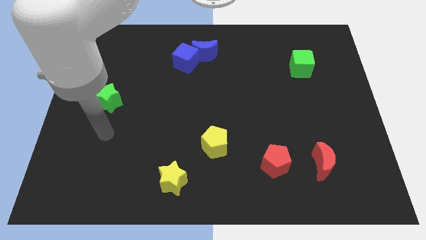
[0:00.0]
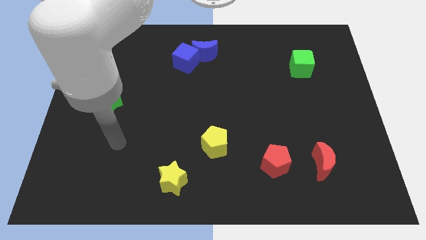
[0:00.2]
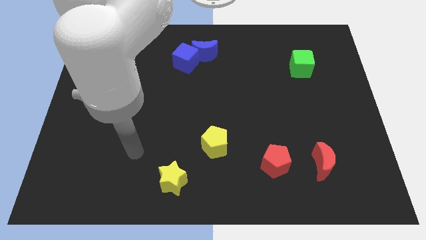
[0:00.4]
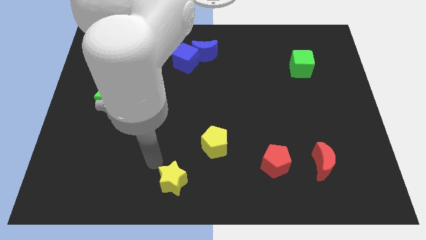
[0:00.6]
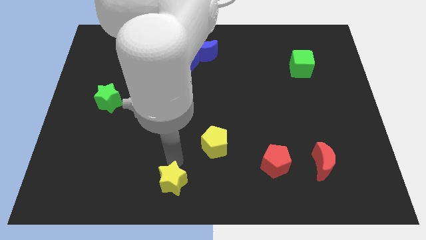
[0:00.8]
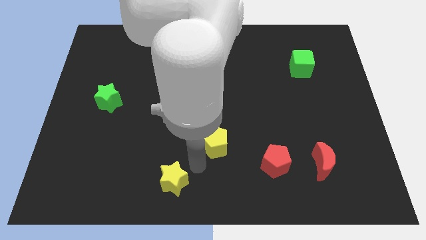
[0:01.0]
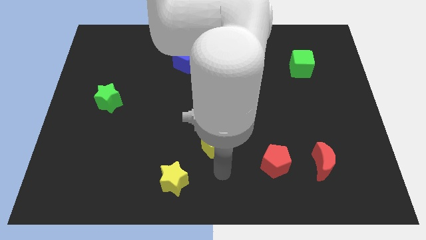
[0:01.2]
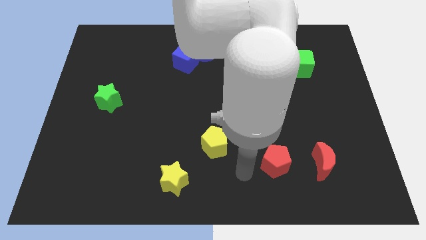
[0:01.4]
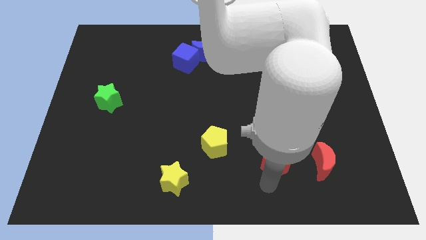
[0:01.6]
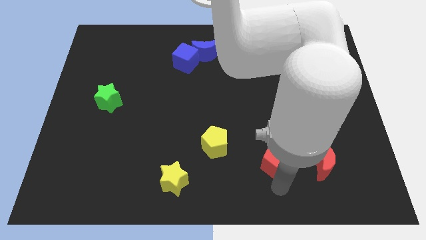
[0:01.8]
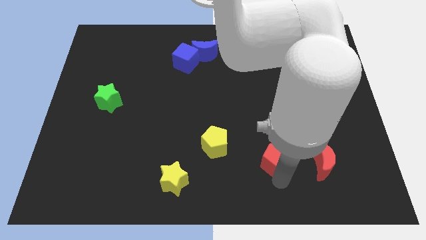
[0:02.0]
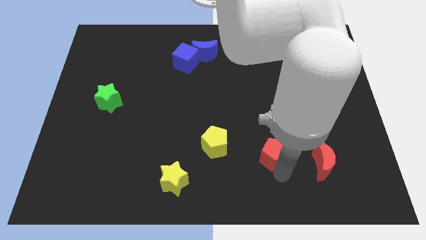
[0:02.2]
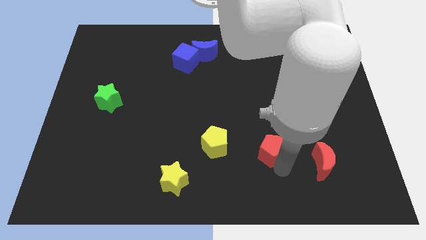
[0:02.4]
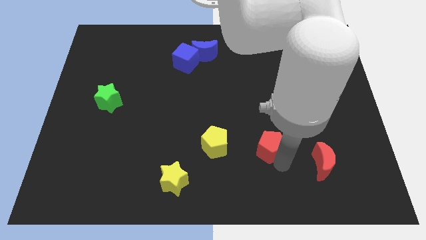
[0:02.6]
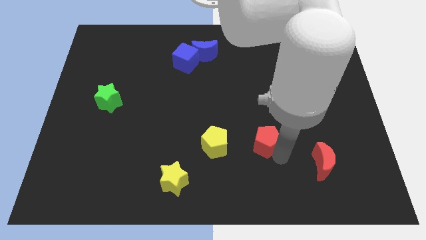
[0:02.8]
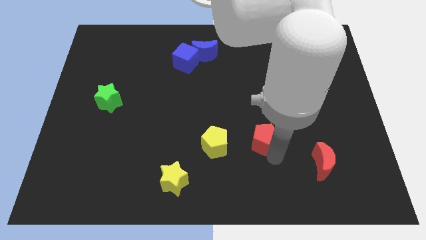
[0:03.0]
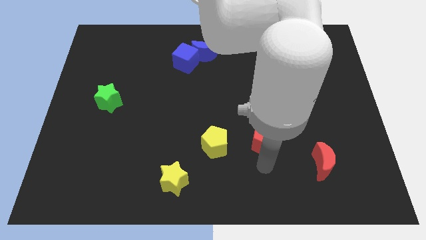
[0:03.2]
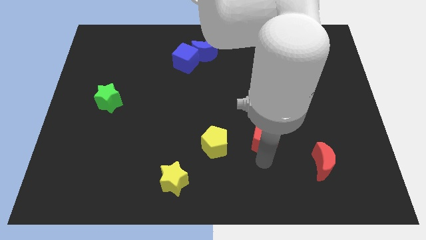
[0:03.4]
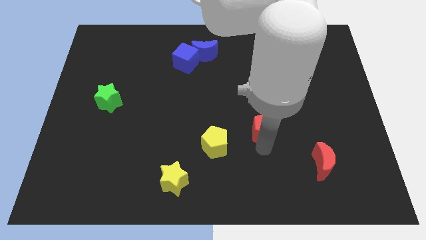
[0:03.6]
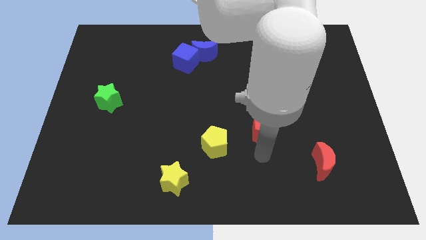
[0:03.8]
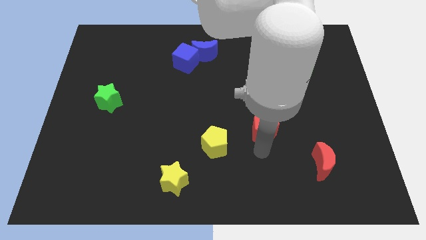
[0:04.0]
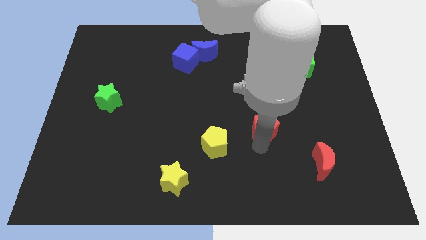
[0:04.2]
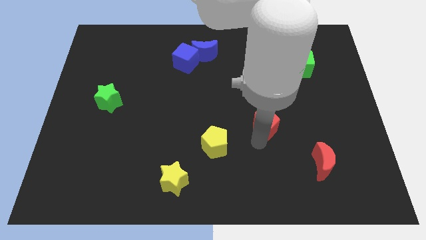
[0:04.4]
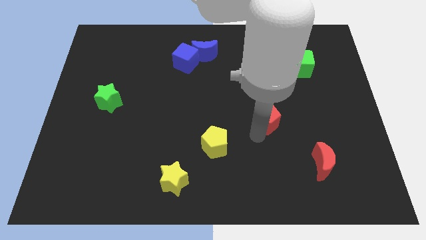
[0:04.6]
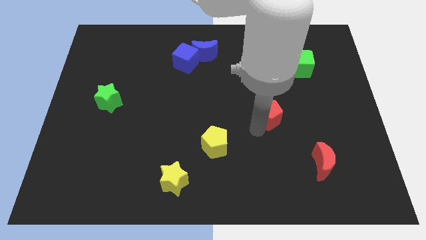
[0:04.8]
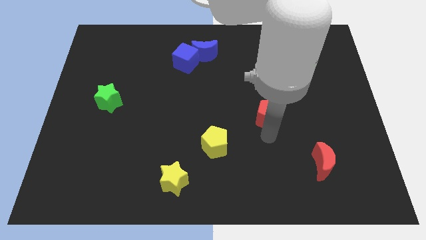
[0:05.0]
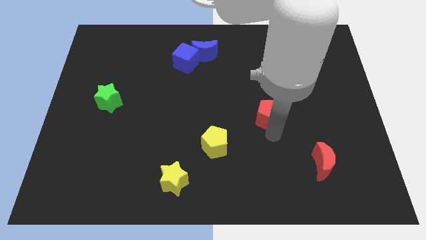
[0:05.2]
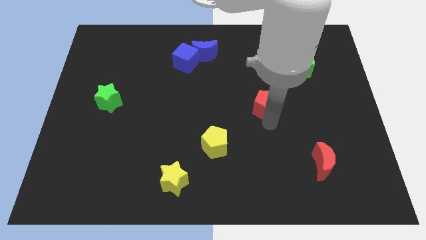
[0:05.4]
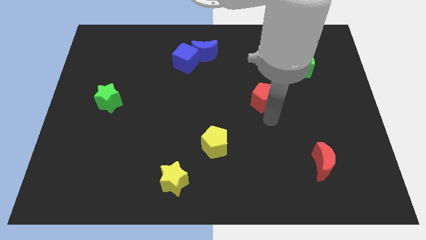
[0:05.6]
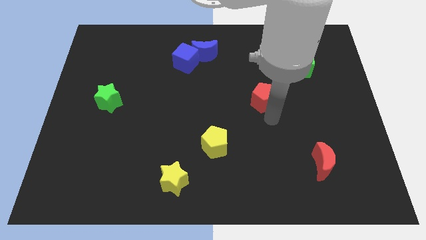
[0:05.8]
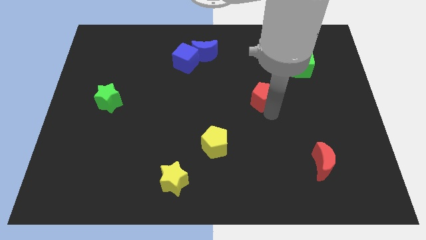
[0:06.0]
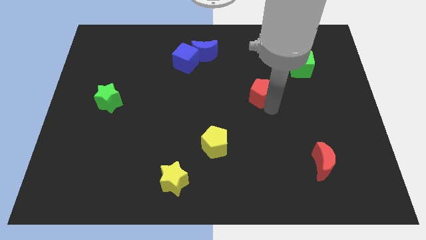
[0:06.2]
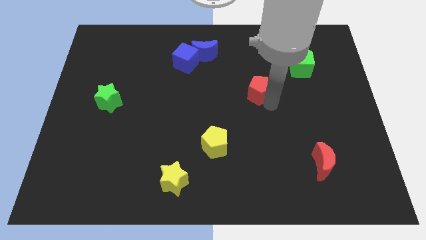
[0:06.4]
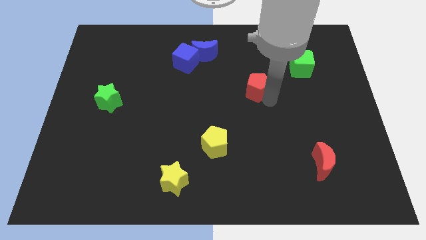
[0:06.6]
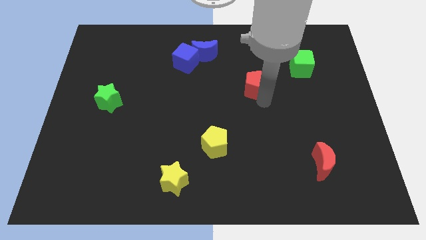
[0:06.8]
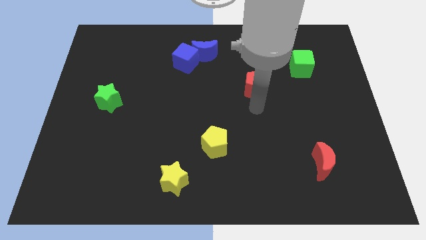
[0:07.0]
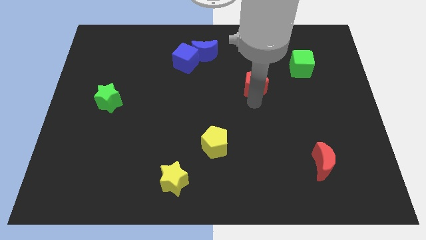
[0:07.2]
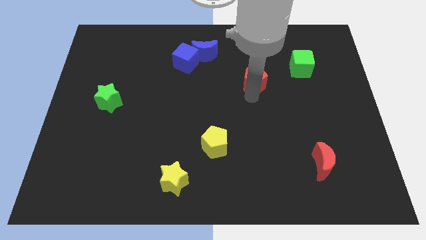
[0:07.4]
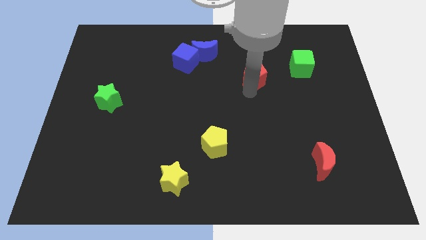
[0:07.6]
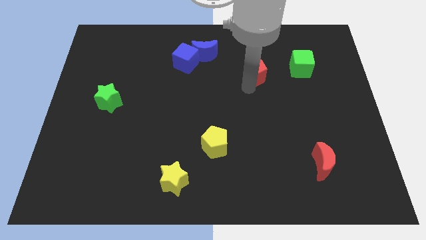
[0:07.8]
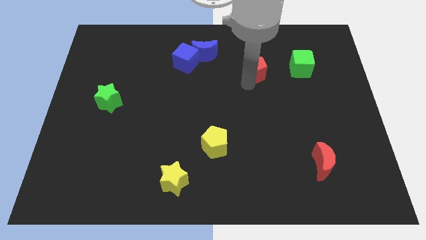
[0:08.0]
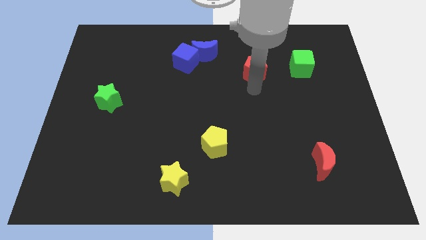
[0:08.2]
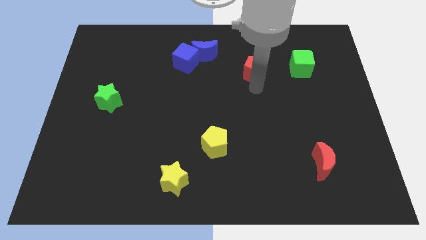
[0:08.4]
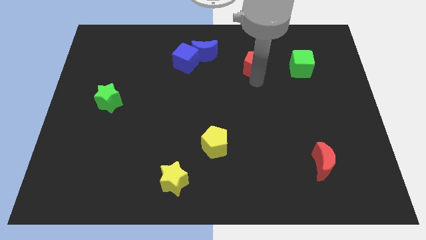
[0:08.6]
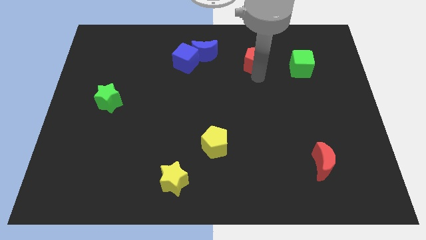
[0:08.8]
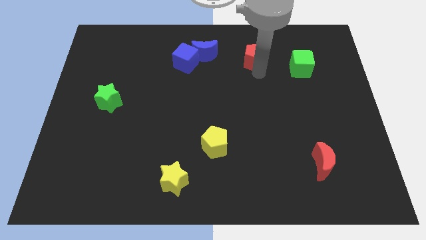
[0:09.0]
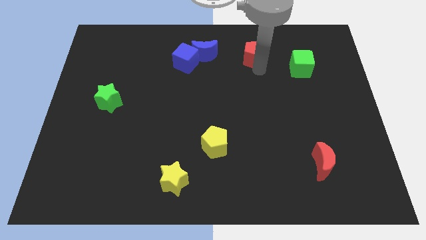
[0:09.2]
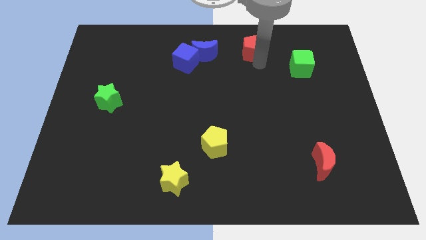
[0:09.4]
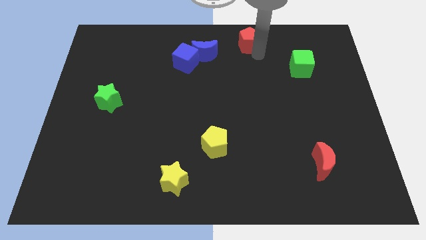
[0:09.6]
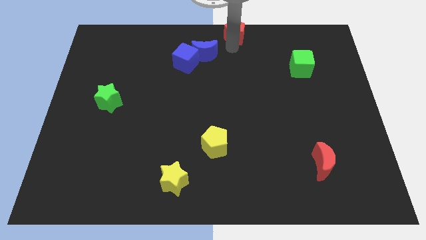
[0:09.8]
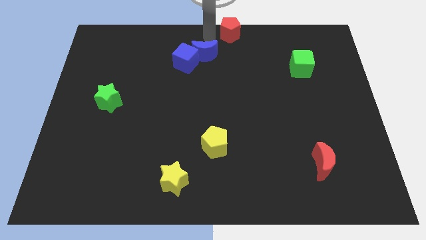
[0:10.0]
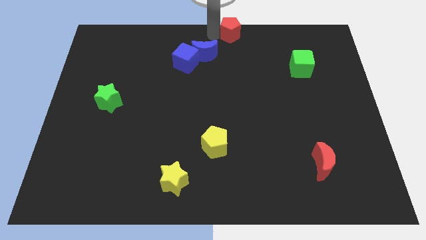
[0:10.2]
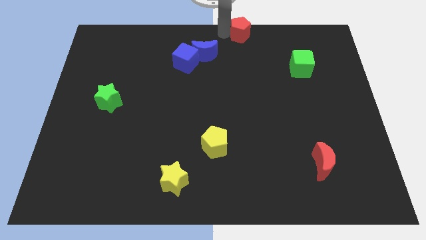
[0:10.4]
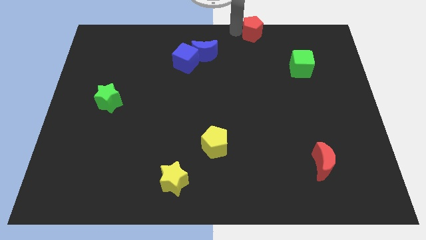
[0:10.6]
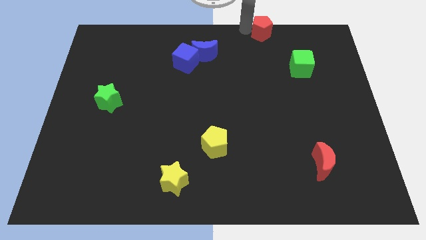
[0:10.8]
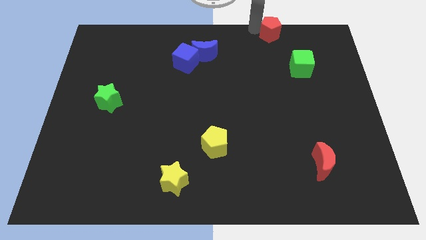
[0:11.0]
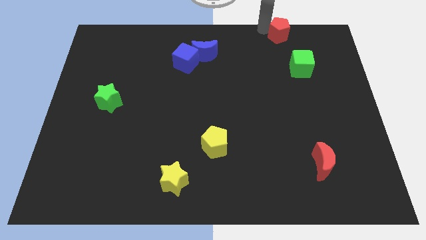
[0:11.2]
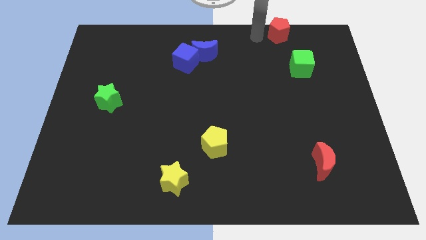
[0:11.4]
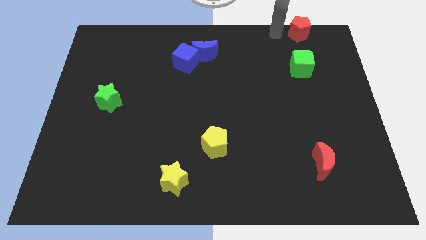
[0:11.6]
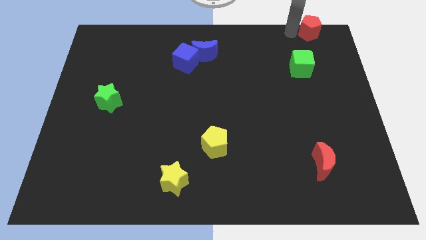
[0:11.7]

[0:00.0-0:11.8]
push the red pentagon to the top right corner

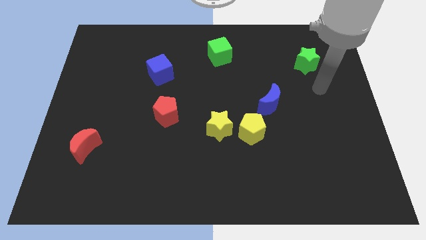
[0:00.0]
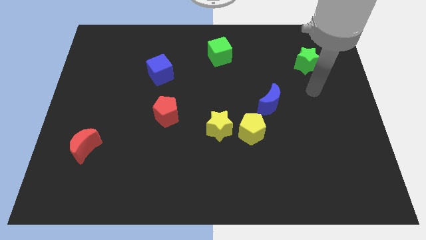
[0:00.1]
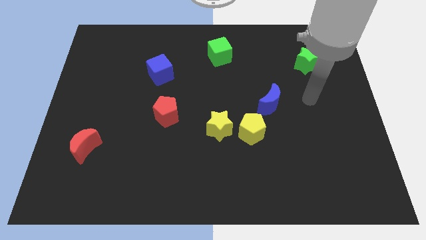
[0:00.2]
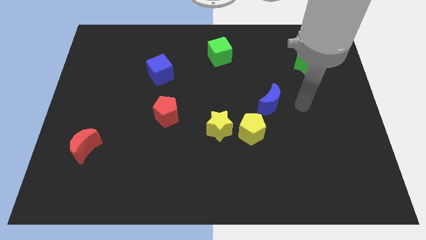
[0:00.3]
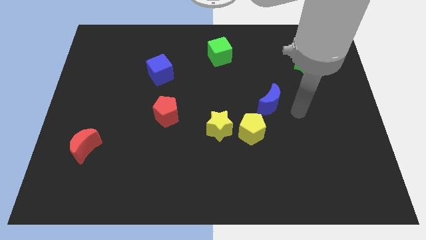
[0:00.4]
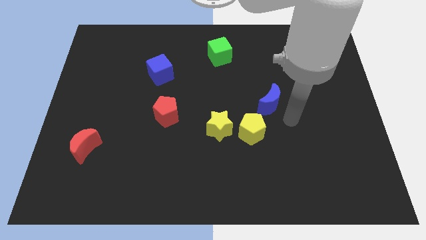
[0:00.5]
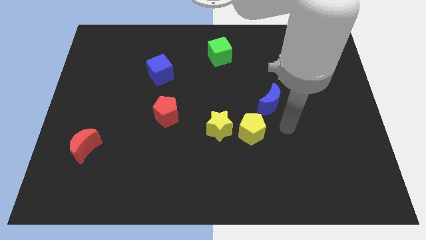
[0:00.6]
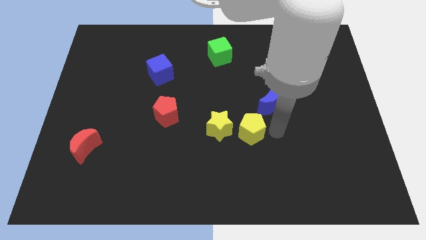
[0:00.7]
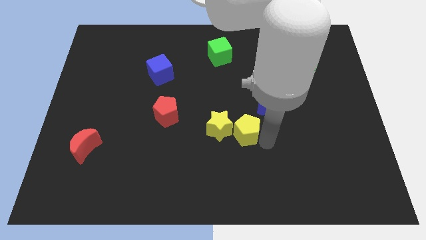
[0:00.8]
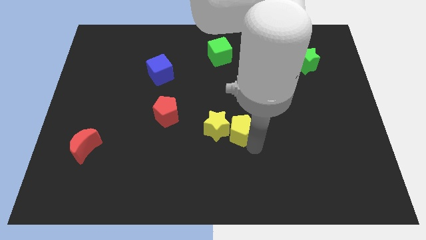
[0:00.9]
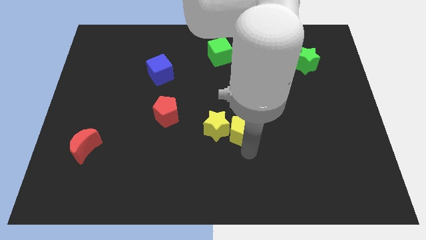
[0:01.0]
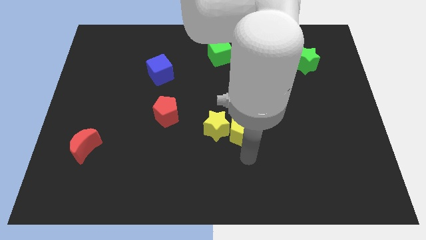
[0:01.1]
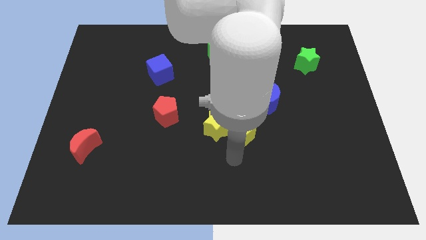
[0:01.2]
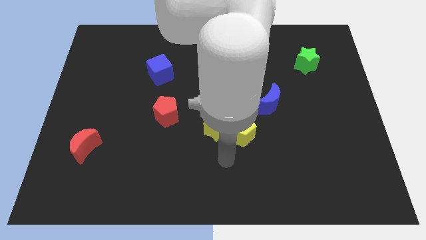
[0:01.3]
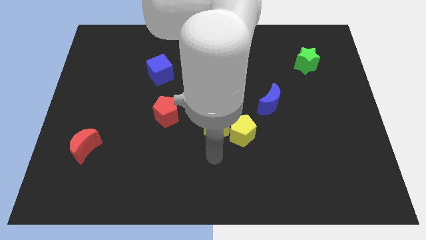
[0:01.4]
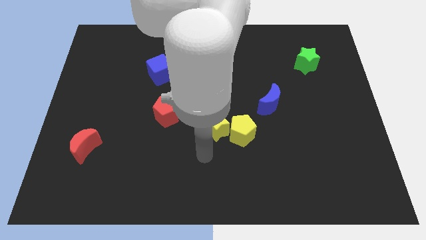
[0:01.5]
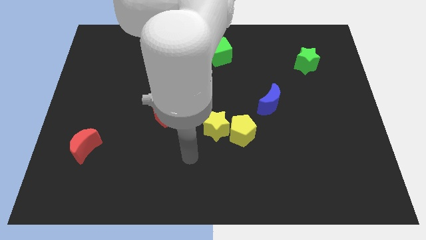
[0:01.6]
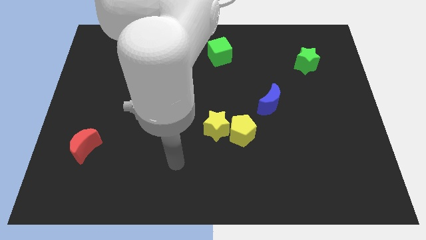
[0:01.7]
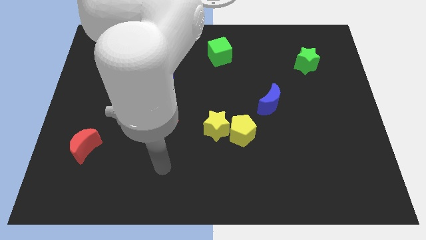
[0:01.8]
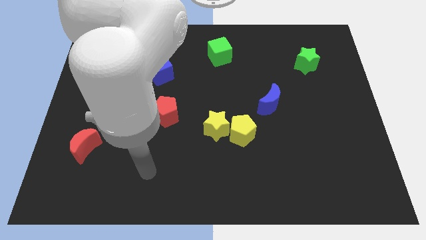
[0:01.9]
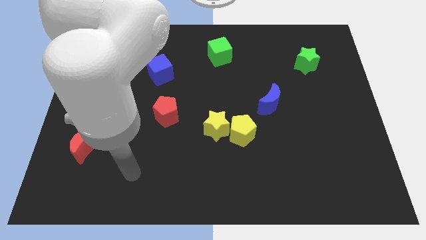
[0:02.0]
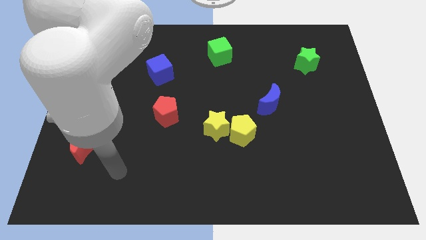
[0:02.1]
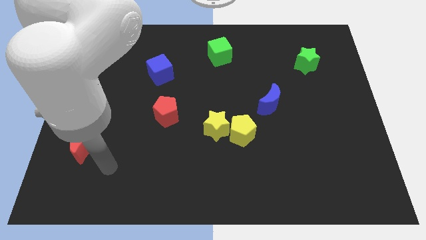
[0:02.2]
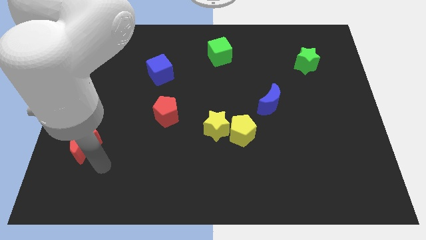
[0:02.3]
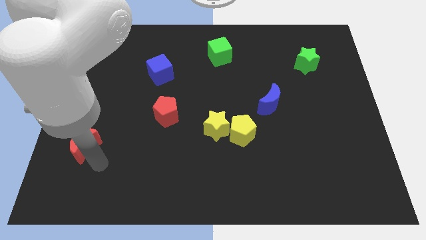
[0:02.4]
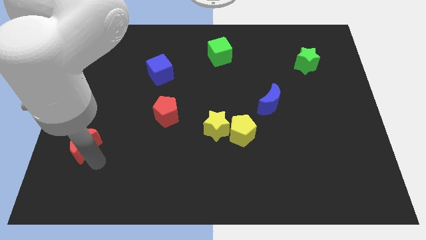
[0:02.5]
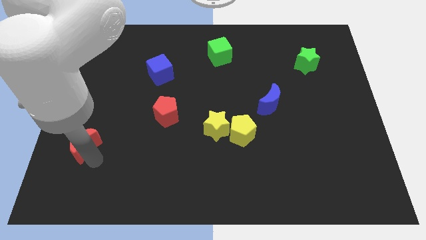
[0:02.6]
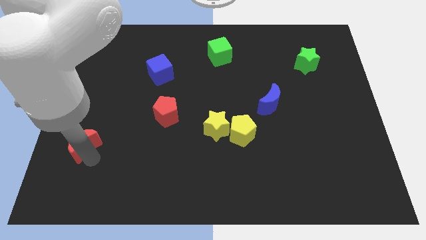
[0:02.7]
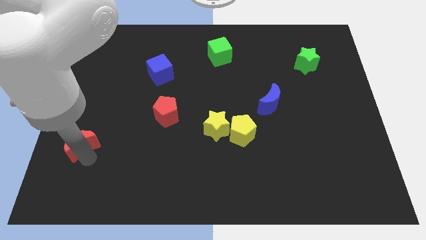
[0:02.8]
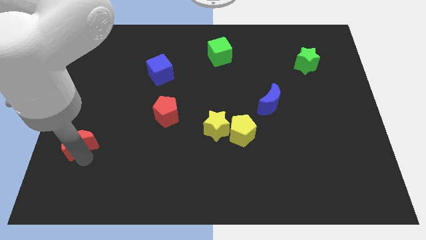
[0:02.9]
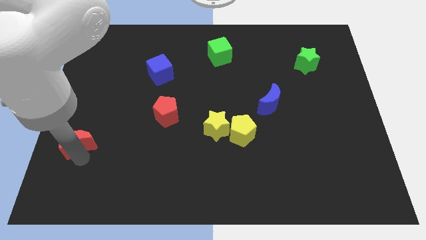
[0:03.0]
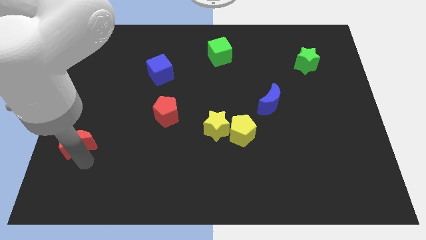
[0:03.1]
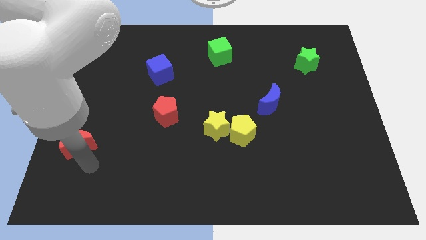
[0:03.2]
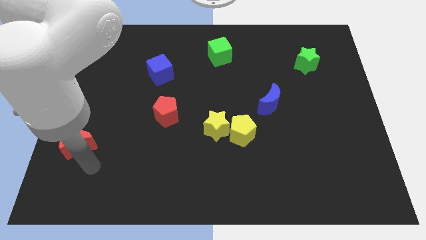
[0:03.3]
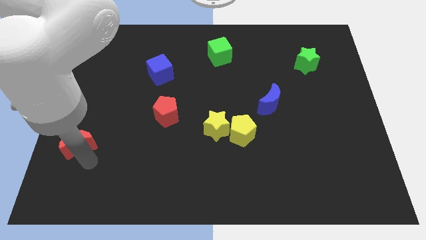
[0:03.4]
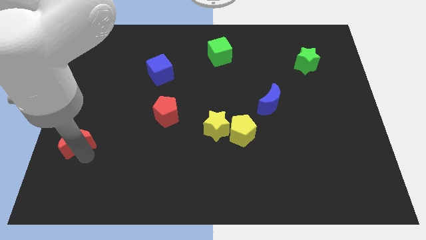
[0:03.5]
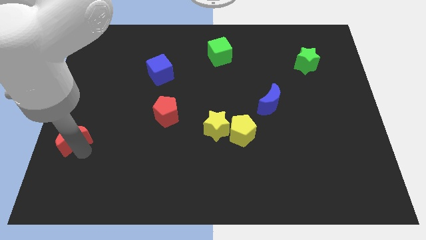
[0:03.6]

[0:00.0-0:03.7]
put the red moon to the left side of the board
